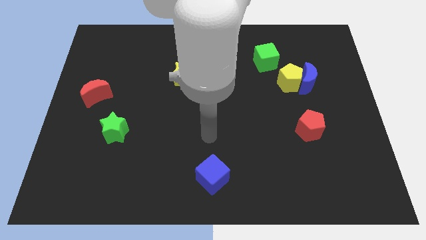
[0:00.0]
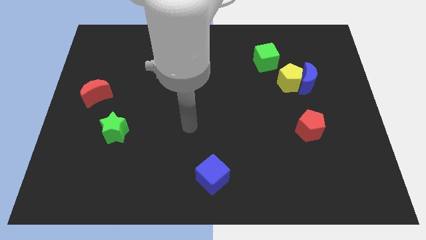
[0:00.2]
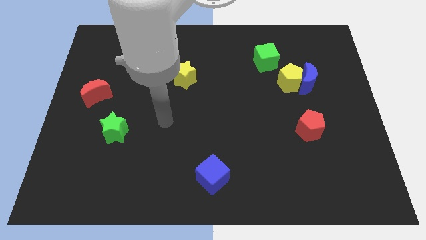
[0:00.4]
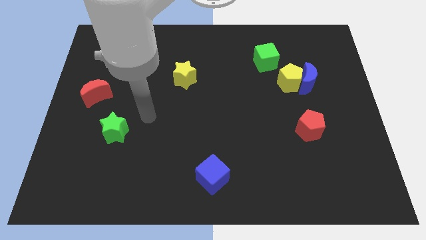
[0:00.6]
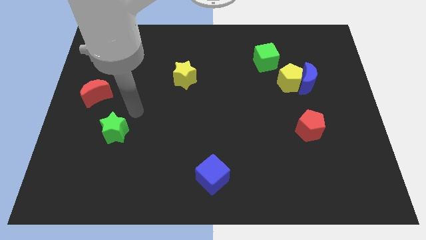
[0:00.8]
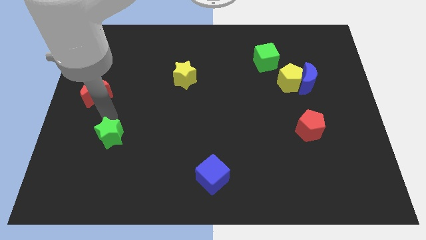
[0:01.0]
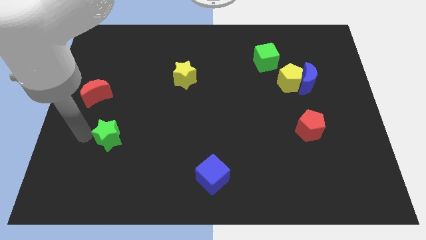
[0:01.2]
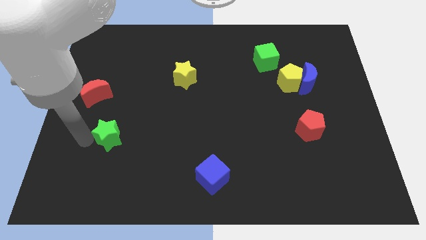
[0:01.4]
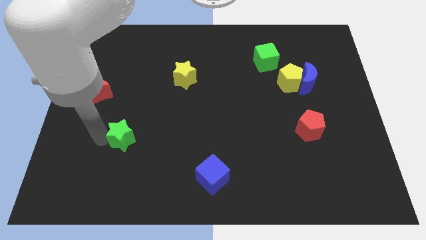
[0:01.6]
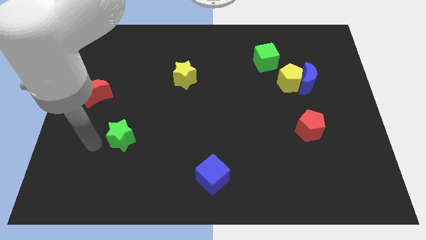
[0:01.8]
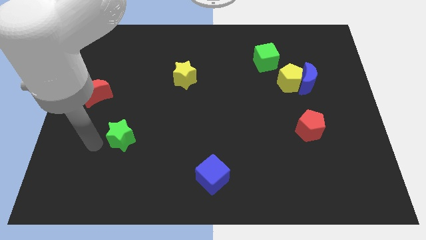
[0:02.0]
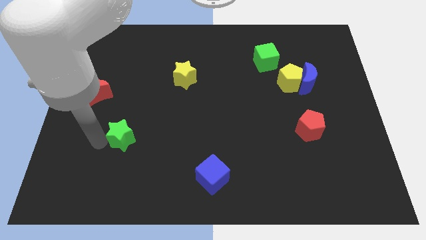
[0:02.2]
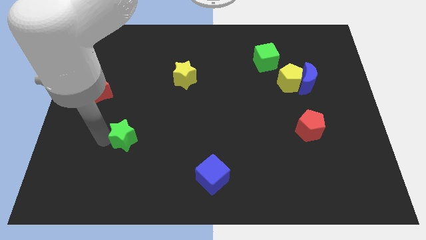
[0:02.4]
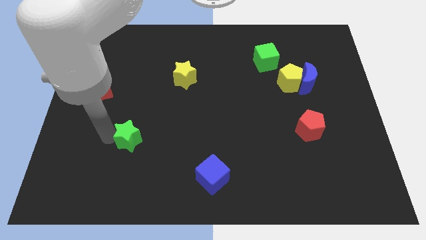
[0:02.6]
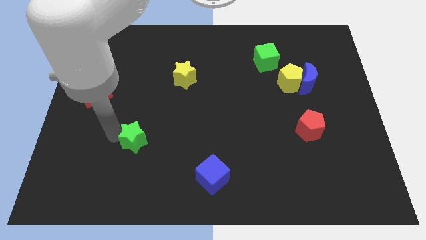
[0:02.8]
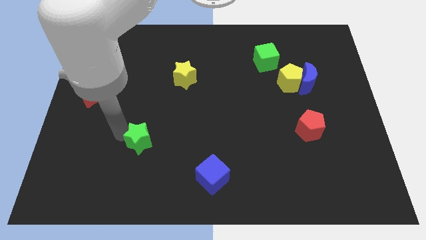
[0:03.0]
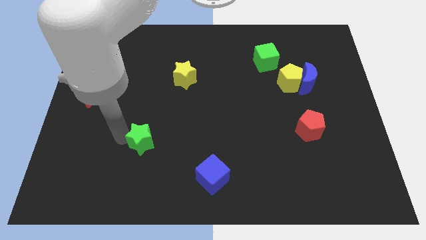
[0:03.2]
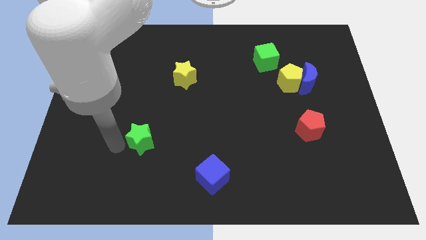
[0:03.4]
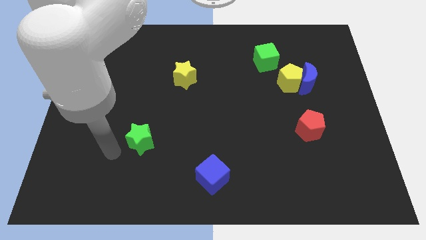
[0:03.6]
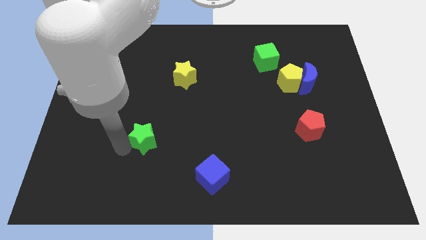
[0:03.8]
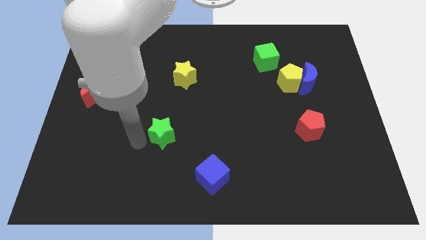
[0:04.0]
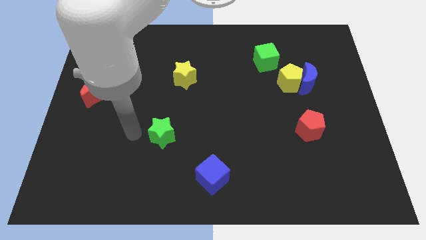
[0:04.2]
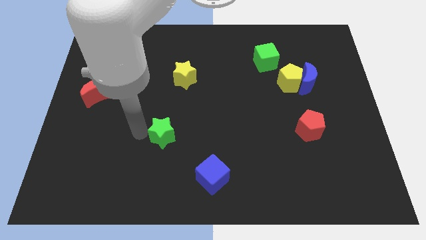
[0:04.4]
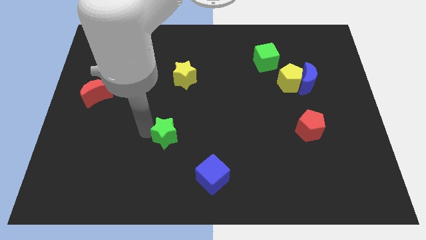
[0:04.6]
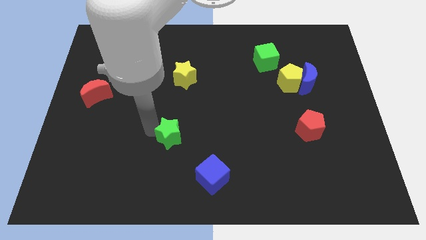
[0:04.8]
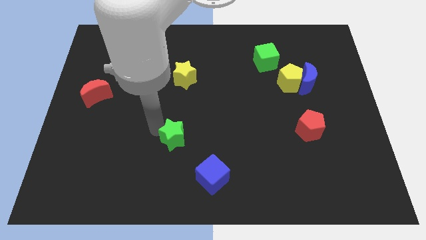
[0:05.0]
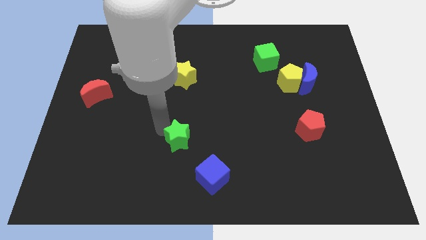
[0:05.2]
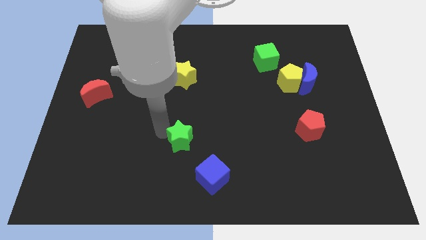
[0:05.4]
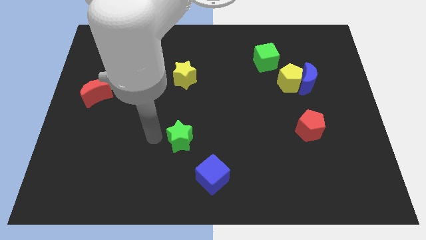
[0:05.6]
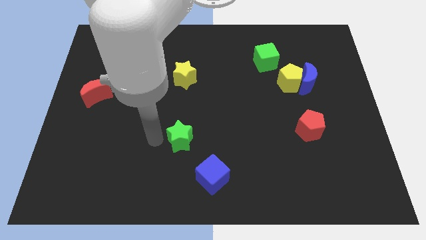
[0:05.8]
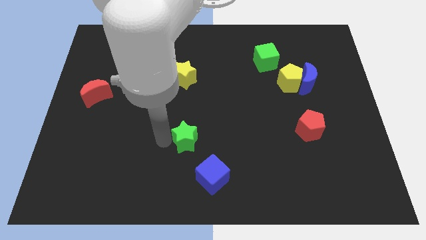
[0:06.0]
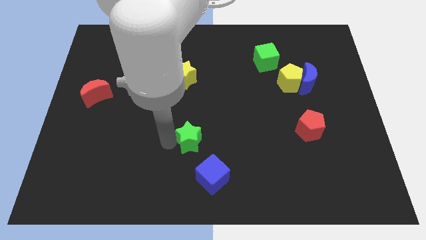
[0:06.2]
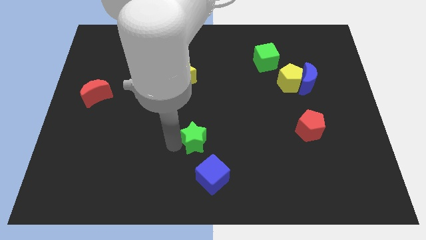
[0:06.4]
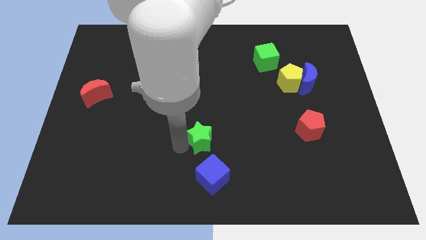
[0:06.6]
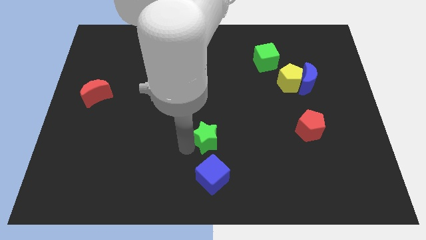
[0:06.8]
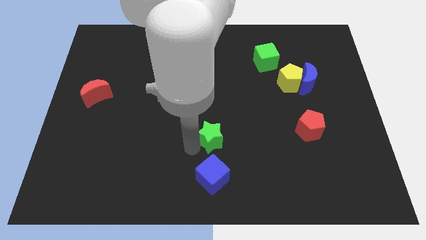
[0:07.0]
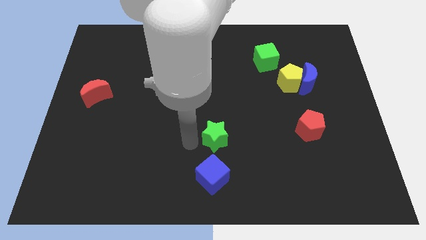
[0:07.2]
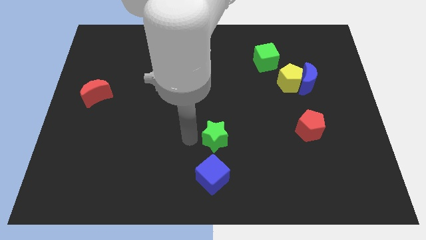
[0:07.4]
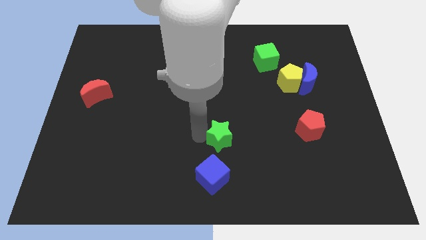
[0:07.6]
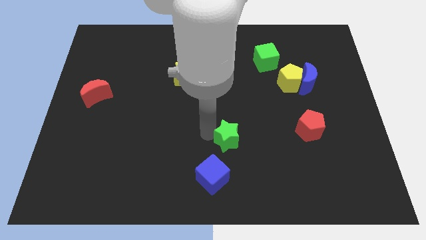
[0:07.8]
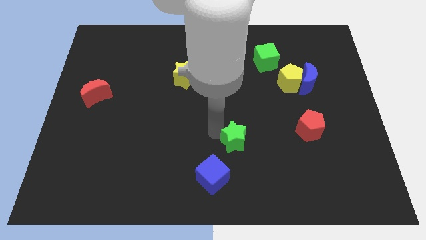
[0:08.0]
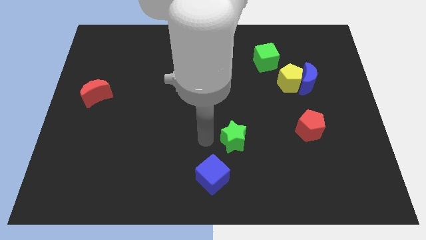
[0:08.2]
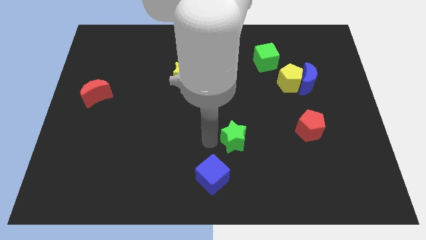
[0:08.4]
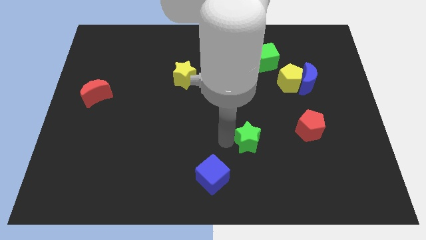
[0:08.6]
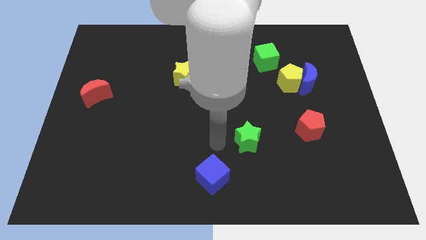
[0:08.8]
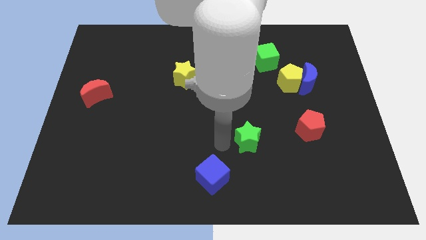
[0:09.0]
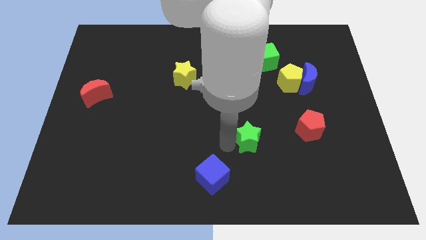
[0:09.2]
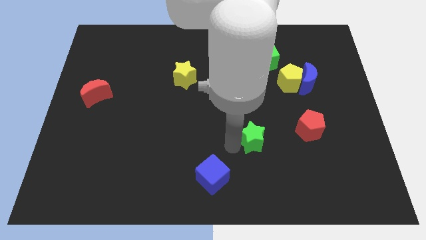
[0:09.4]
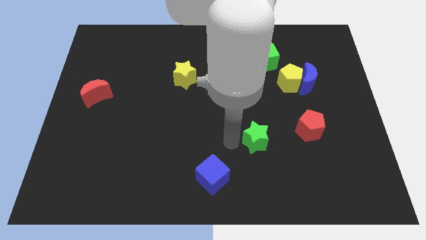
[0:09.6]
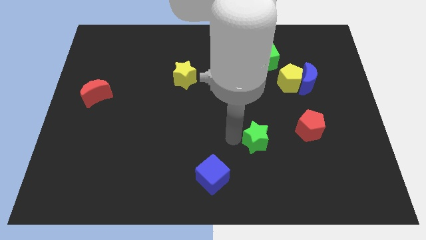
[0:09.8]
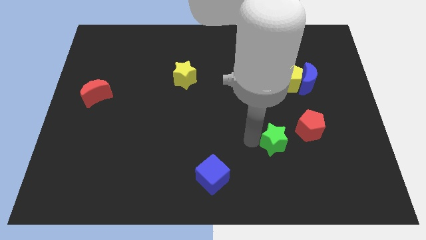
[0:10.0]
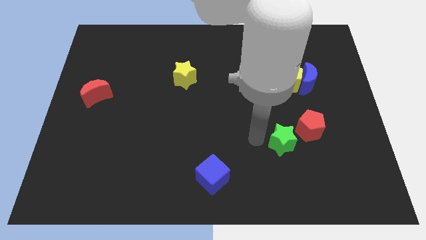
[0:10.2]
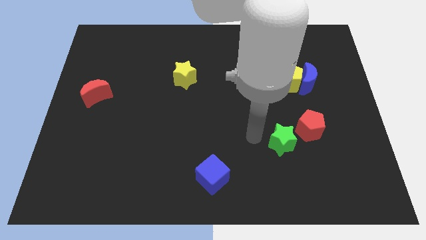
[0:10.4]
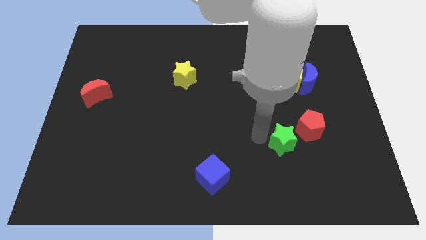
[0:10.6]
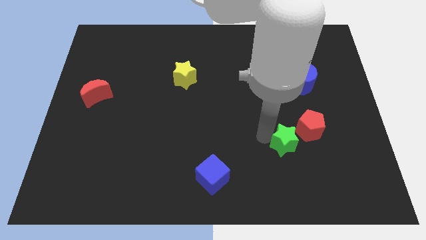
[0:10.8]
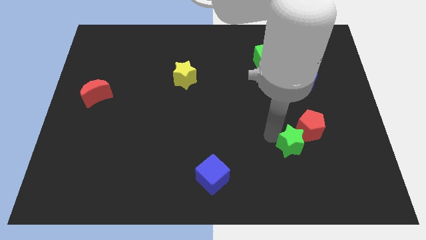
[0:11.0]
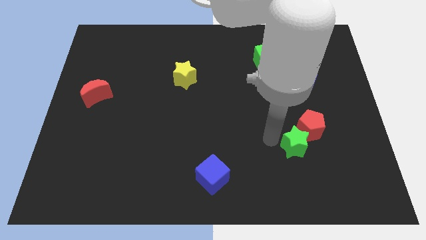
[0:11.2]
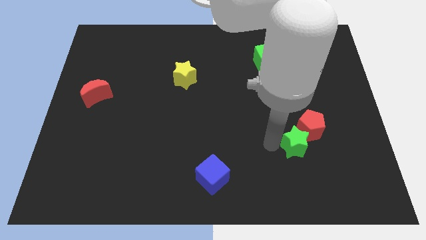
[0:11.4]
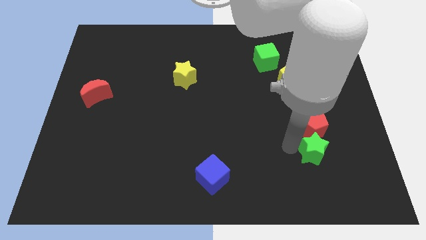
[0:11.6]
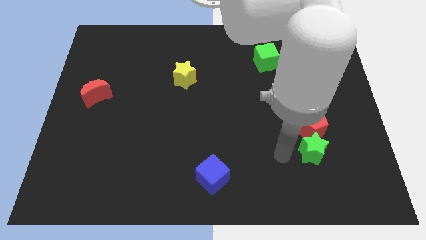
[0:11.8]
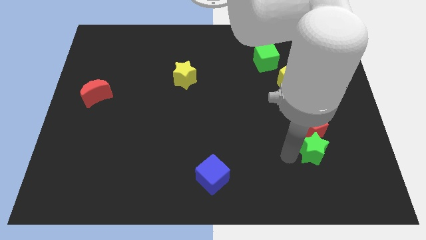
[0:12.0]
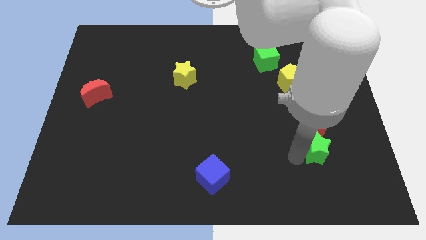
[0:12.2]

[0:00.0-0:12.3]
slide the green star diagonally down and to the right of the red pentagon

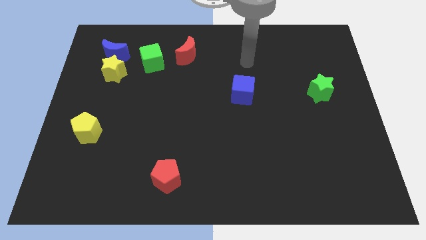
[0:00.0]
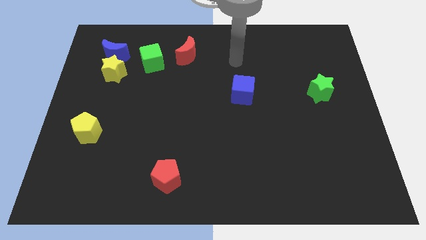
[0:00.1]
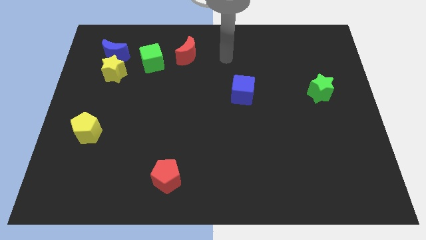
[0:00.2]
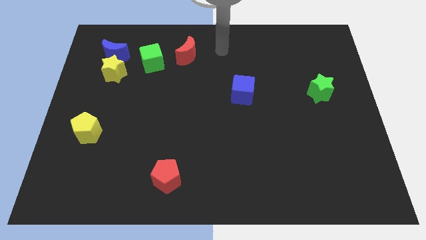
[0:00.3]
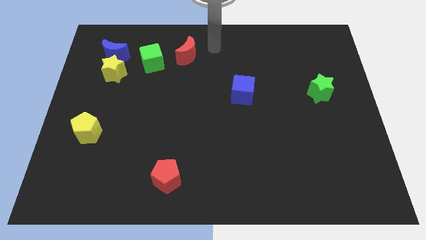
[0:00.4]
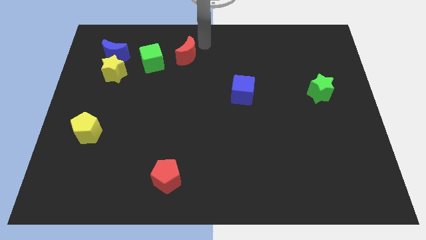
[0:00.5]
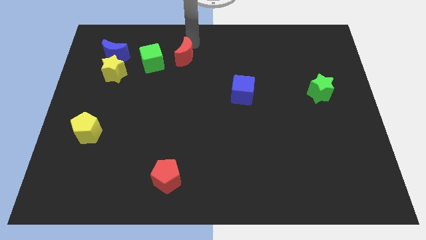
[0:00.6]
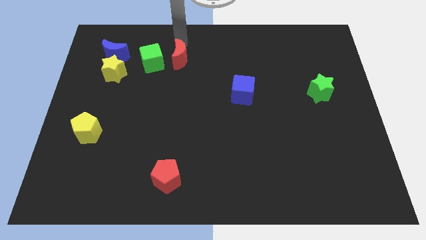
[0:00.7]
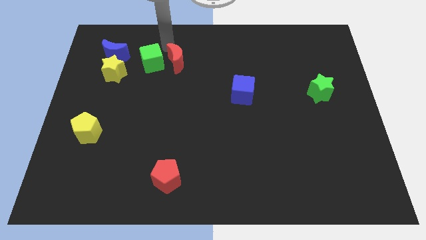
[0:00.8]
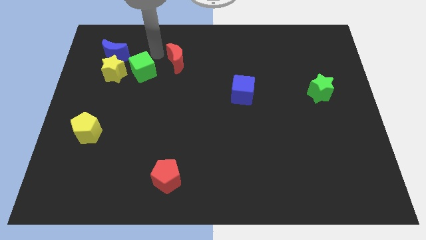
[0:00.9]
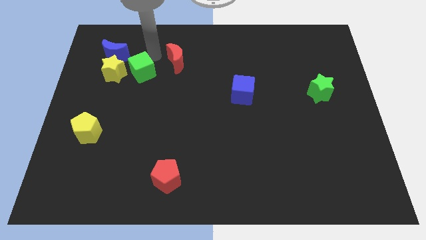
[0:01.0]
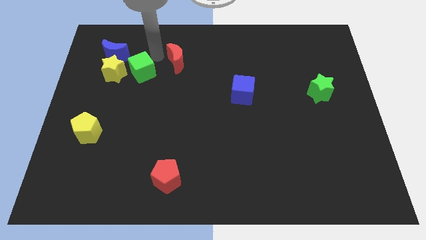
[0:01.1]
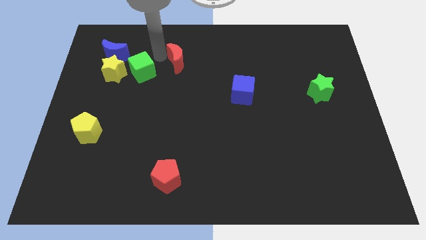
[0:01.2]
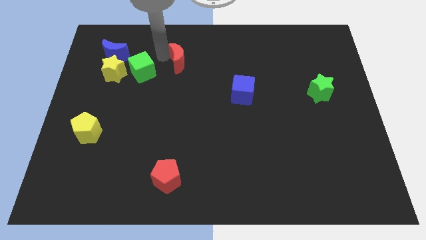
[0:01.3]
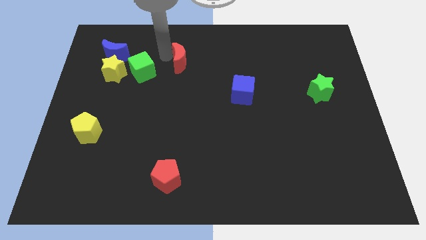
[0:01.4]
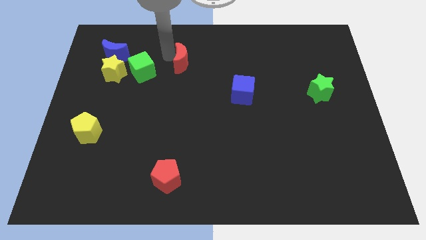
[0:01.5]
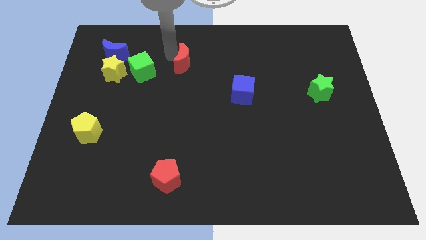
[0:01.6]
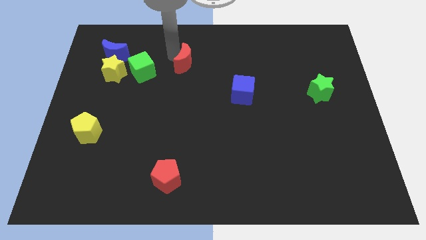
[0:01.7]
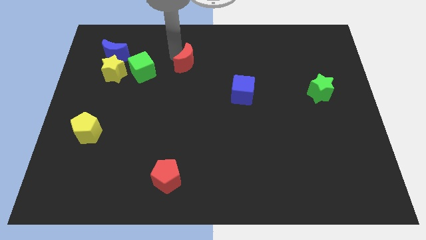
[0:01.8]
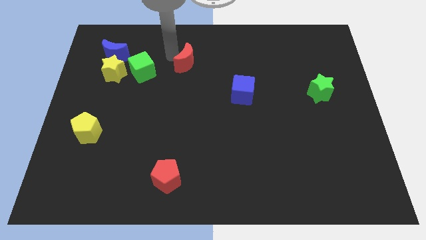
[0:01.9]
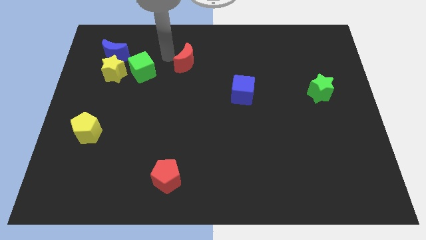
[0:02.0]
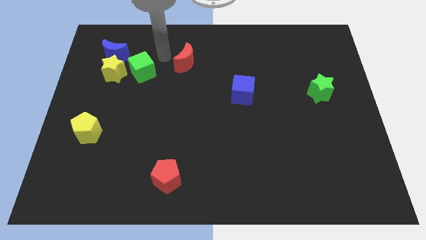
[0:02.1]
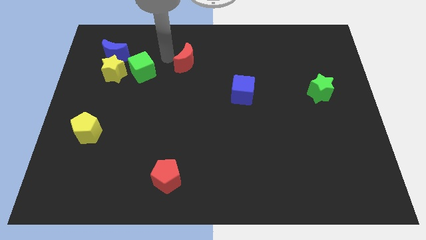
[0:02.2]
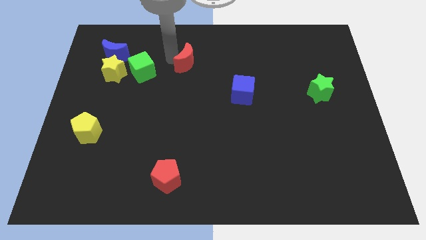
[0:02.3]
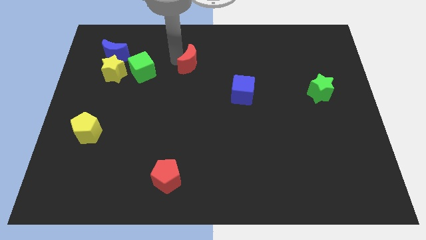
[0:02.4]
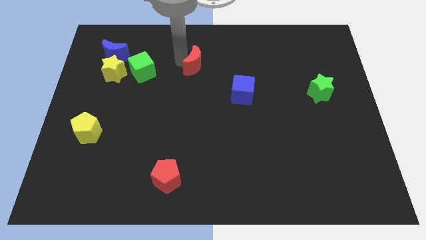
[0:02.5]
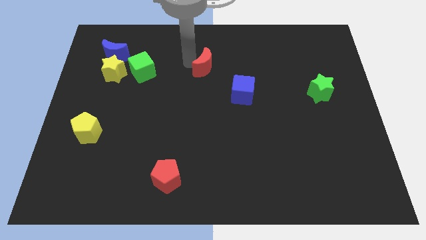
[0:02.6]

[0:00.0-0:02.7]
move the red moon to the top left side of the blue cube
